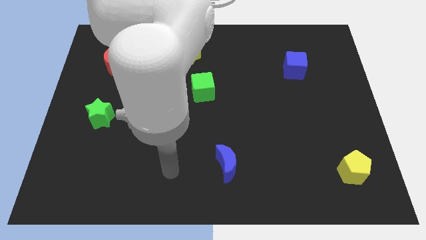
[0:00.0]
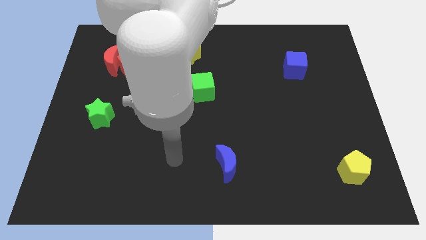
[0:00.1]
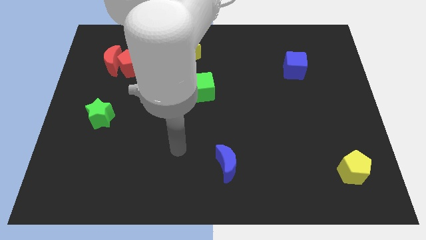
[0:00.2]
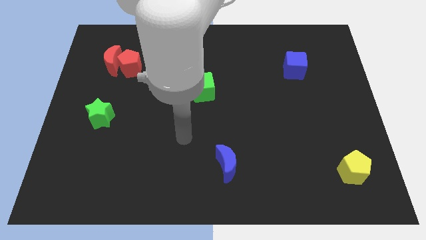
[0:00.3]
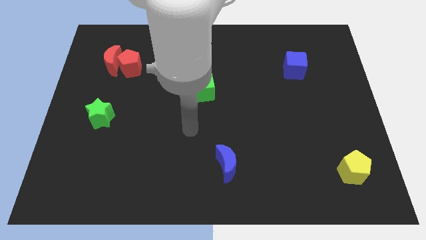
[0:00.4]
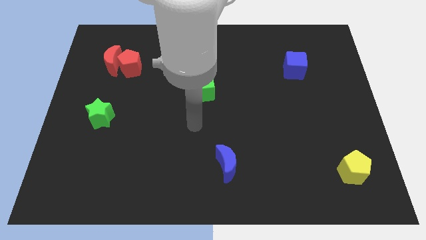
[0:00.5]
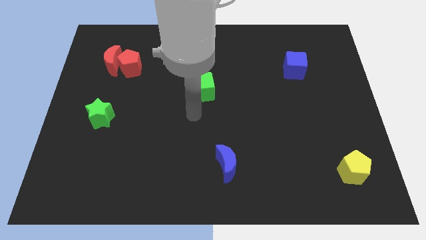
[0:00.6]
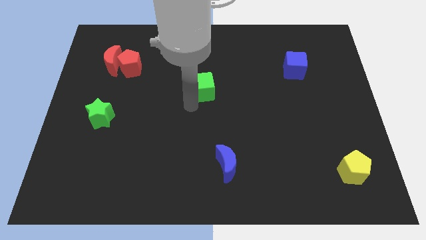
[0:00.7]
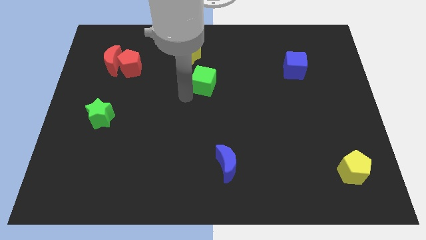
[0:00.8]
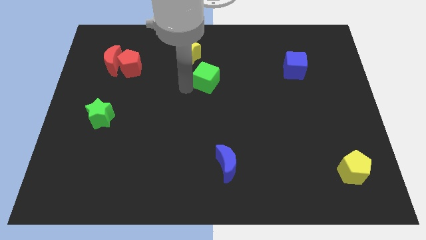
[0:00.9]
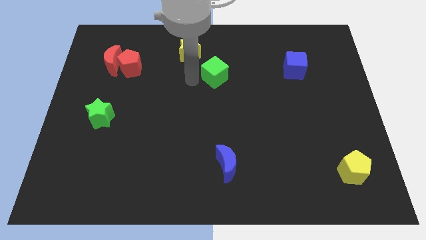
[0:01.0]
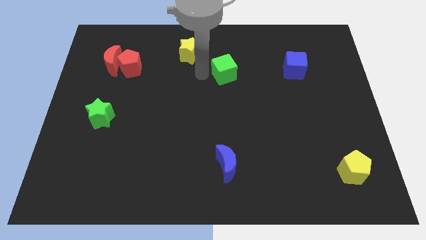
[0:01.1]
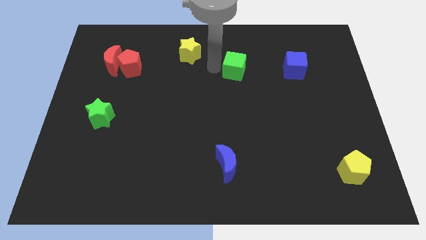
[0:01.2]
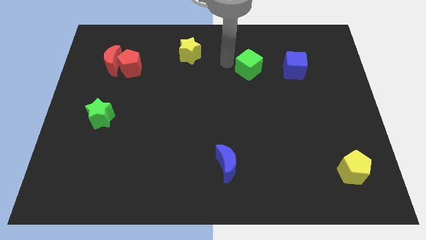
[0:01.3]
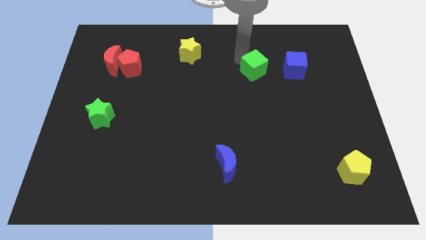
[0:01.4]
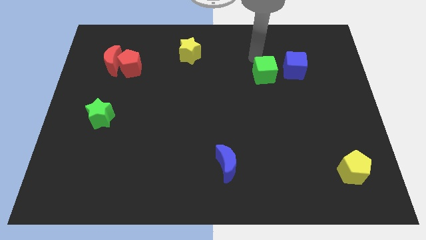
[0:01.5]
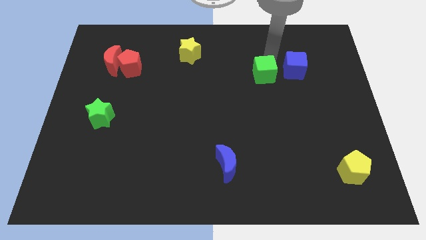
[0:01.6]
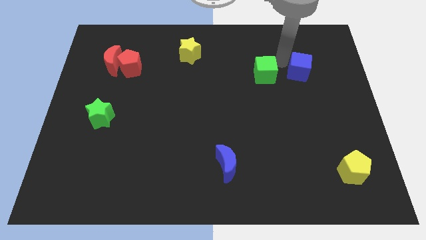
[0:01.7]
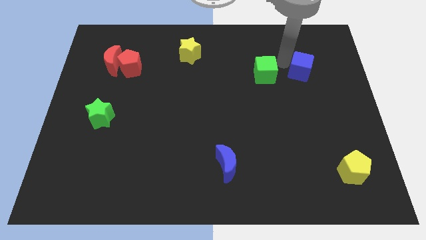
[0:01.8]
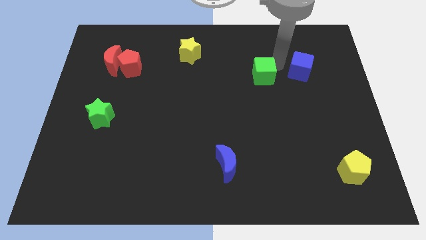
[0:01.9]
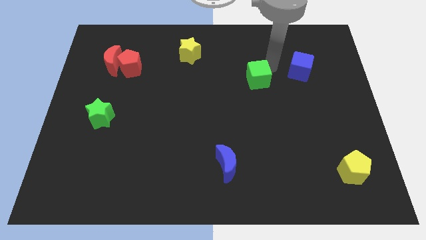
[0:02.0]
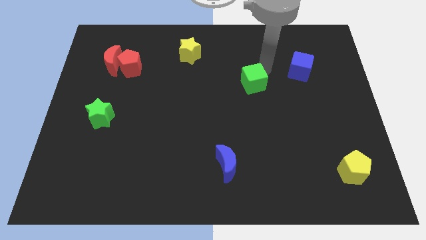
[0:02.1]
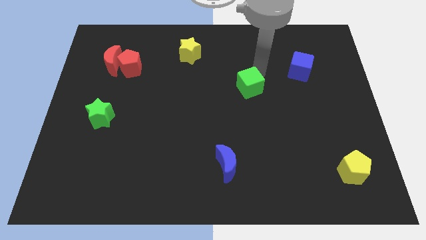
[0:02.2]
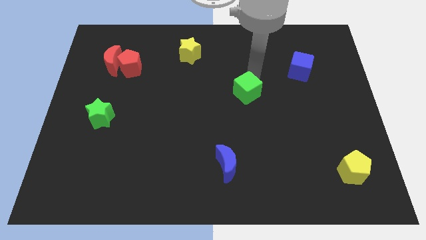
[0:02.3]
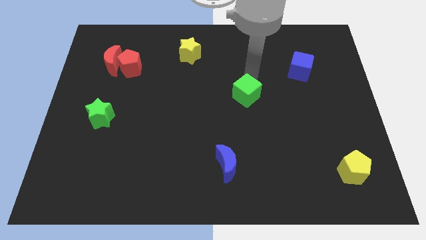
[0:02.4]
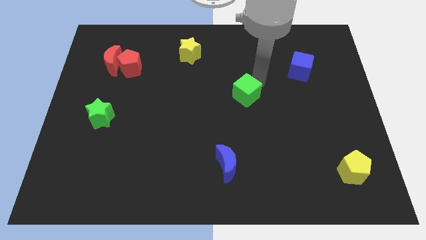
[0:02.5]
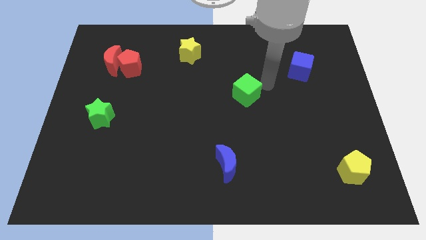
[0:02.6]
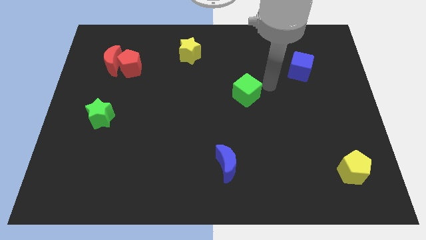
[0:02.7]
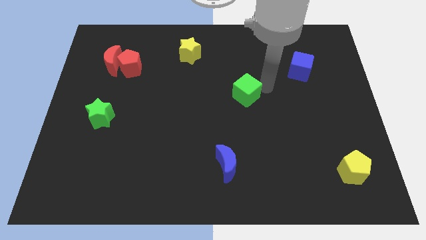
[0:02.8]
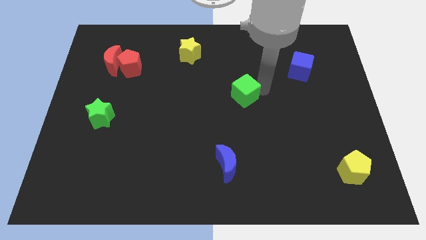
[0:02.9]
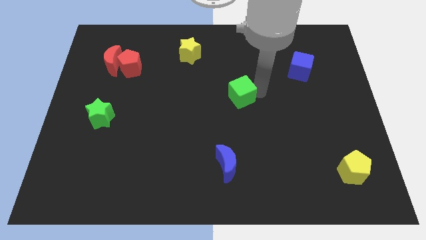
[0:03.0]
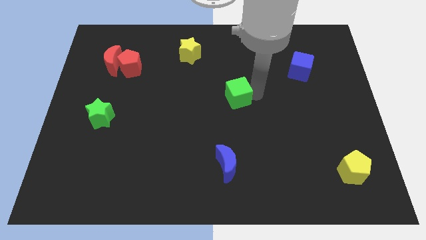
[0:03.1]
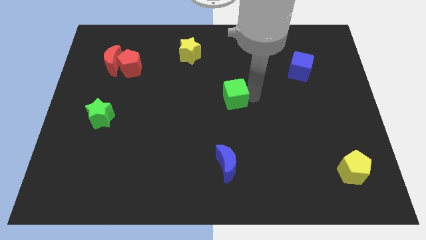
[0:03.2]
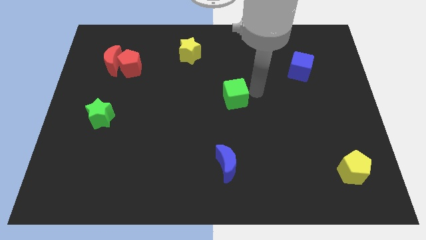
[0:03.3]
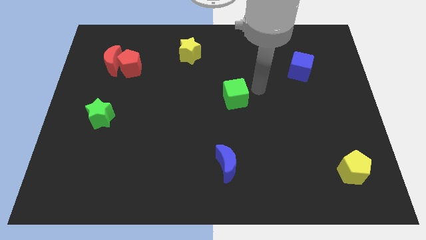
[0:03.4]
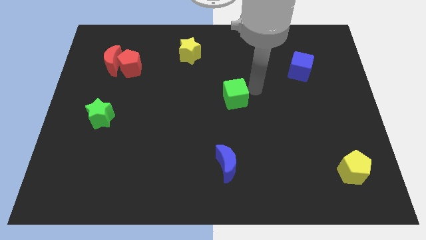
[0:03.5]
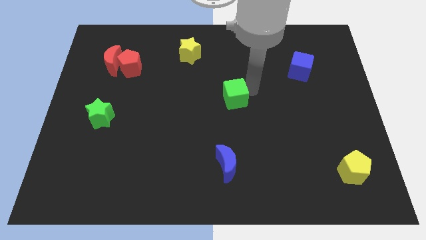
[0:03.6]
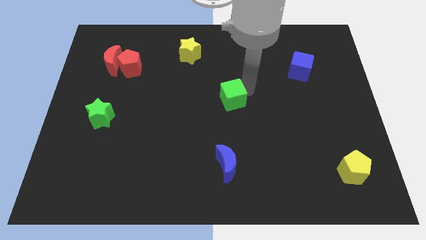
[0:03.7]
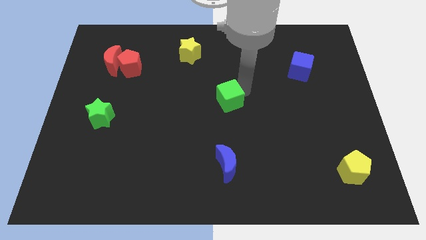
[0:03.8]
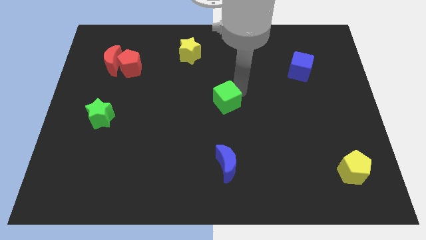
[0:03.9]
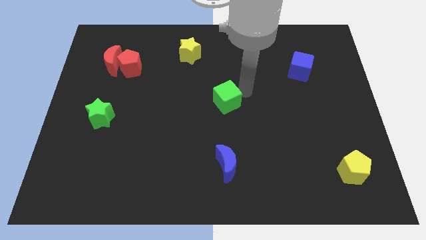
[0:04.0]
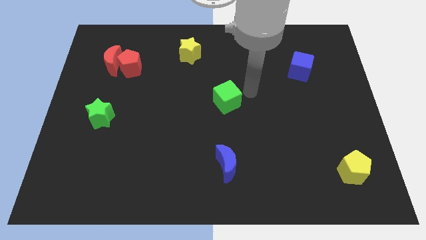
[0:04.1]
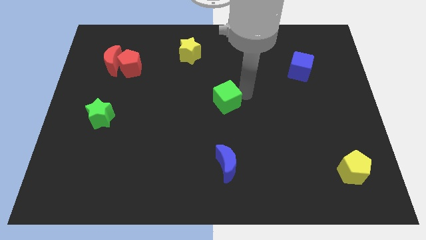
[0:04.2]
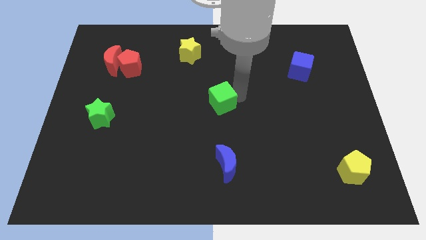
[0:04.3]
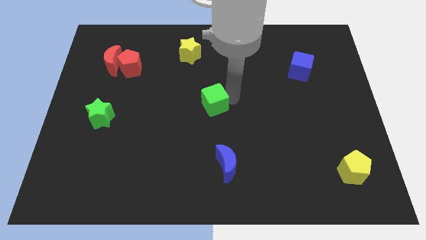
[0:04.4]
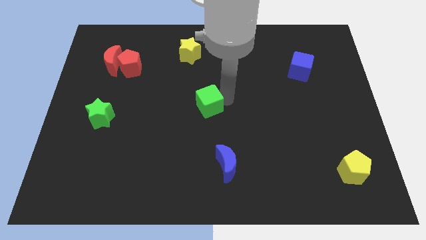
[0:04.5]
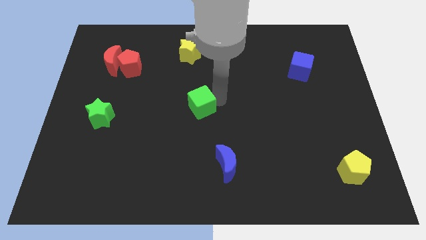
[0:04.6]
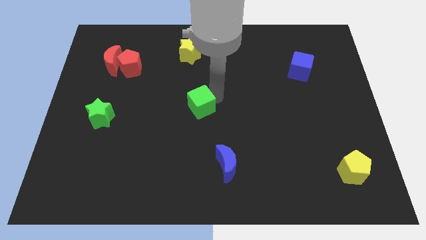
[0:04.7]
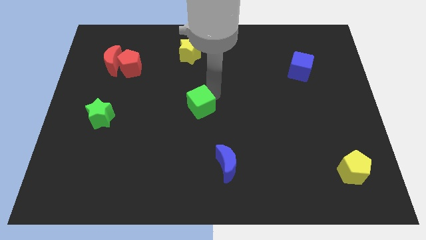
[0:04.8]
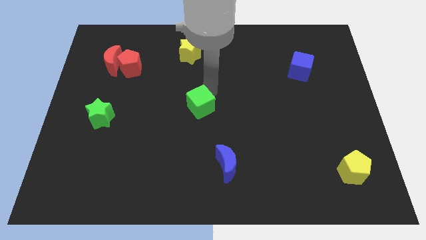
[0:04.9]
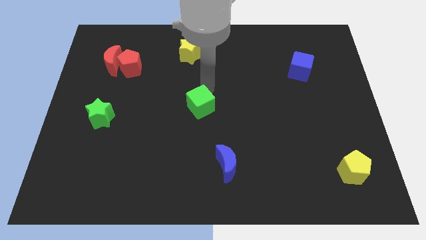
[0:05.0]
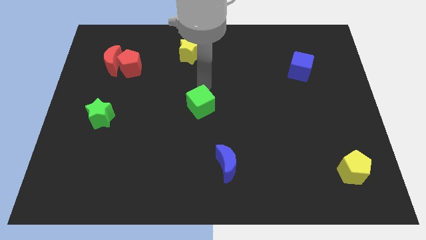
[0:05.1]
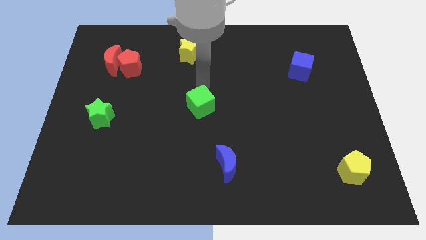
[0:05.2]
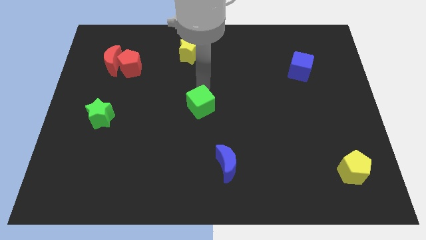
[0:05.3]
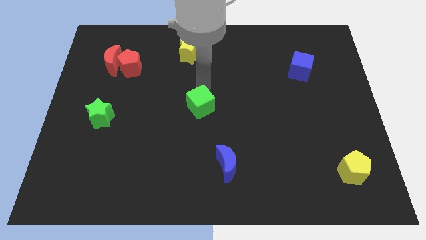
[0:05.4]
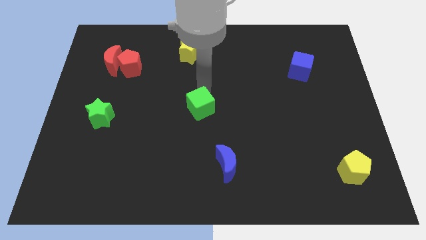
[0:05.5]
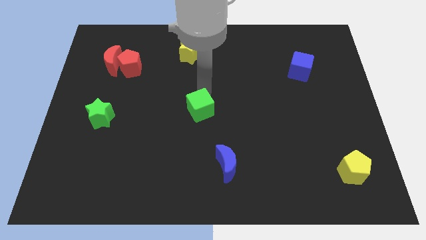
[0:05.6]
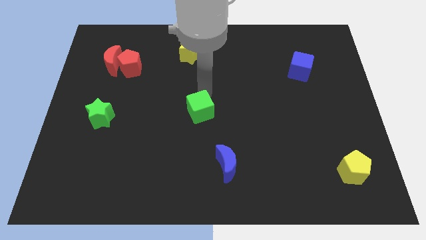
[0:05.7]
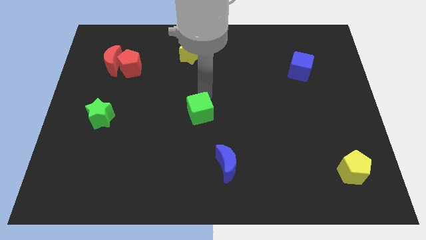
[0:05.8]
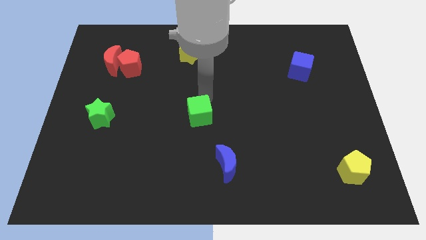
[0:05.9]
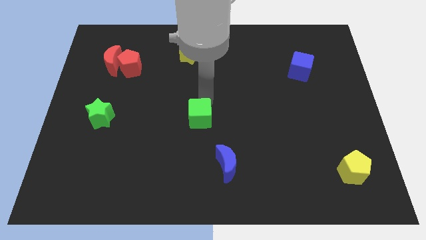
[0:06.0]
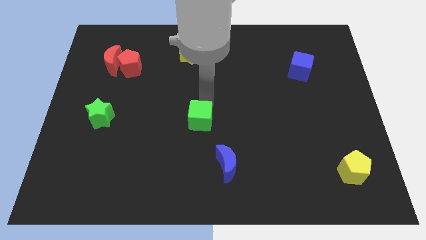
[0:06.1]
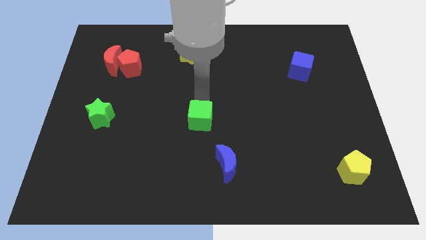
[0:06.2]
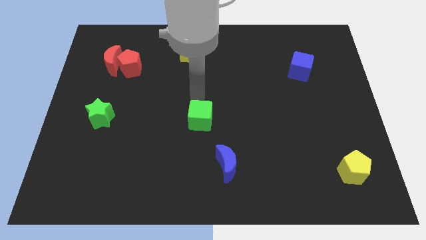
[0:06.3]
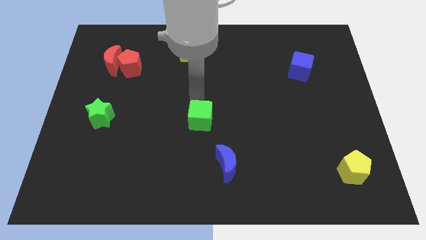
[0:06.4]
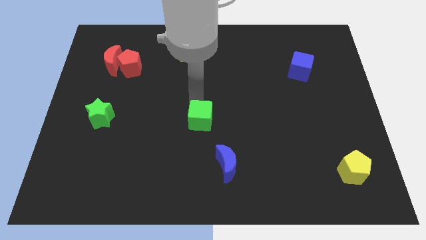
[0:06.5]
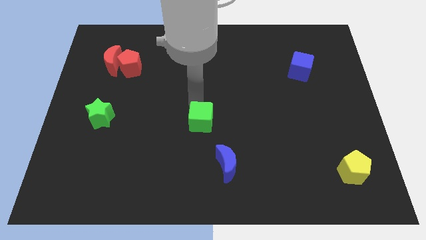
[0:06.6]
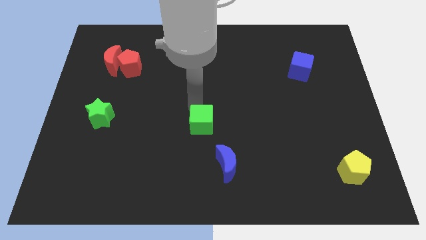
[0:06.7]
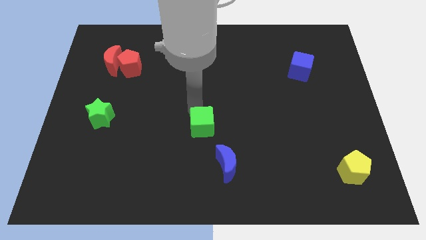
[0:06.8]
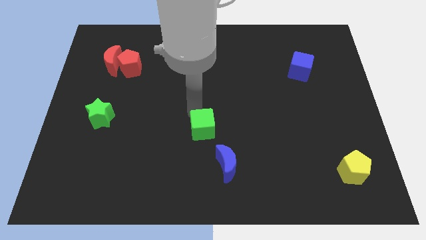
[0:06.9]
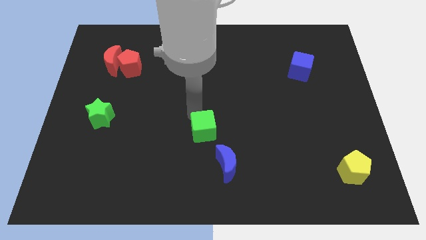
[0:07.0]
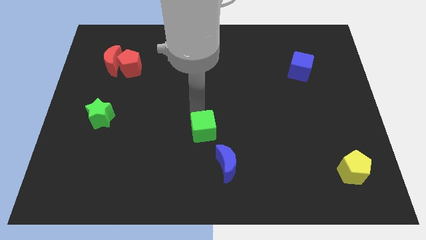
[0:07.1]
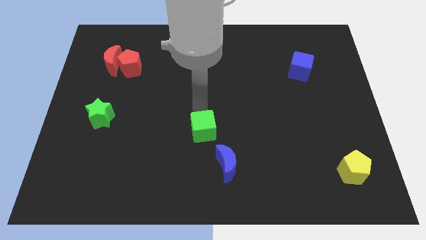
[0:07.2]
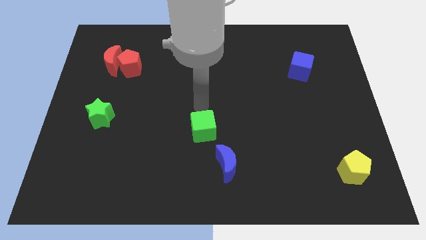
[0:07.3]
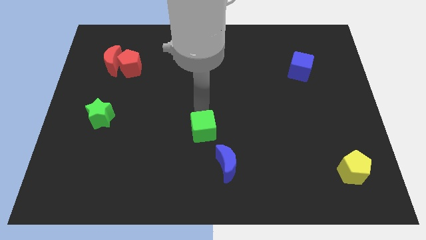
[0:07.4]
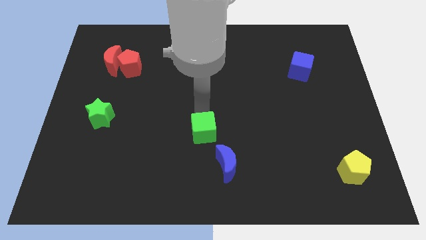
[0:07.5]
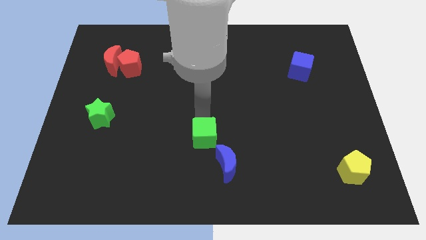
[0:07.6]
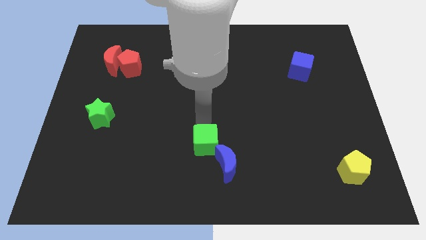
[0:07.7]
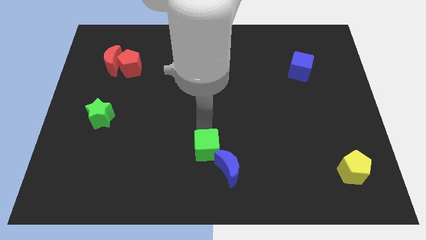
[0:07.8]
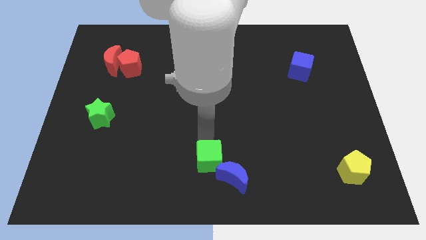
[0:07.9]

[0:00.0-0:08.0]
move the green cube to the bottom side
